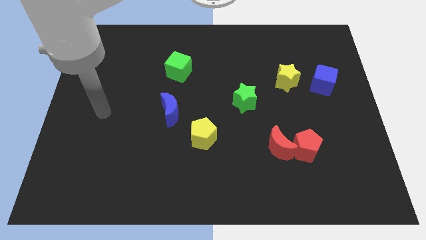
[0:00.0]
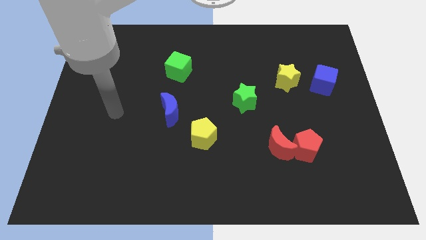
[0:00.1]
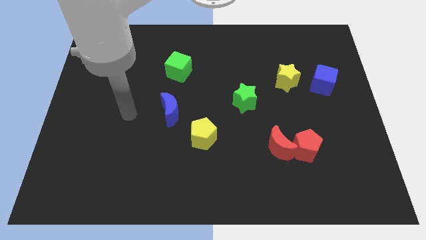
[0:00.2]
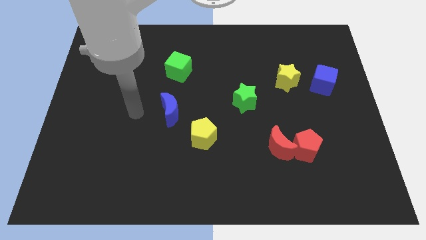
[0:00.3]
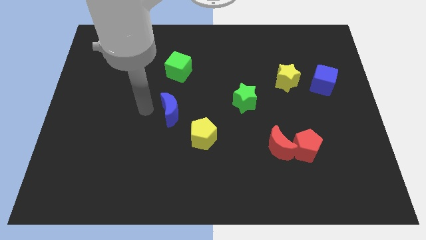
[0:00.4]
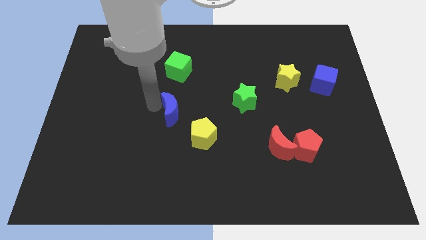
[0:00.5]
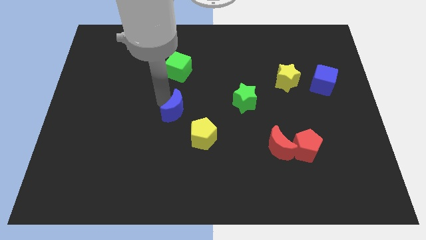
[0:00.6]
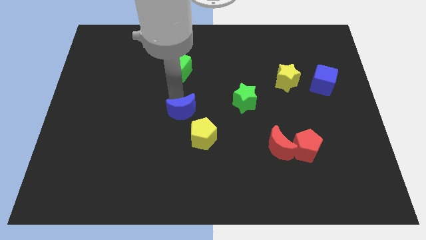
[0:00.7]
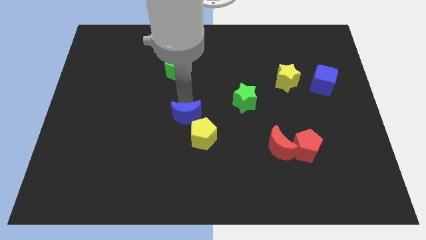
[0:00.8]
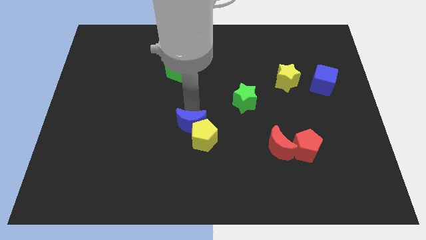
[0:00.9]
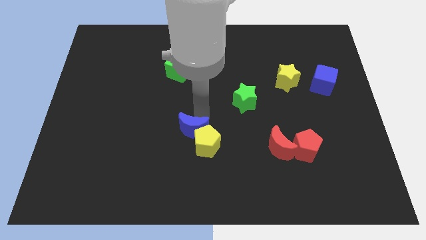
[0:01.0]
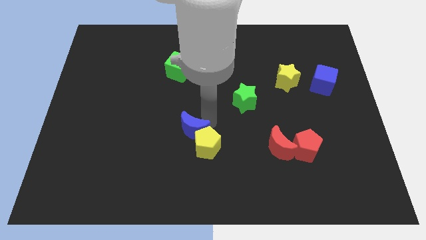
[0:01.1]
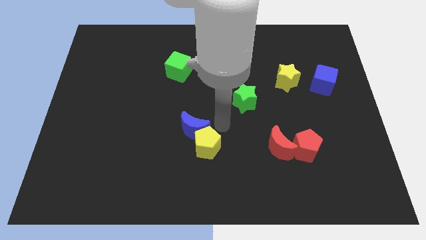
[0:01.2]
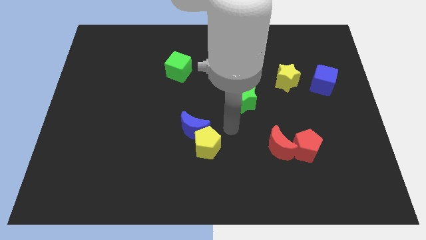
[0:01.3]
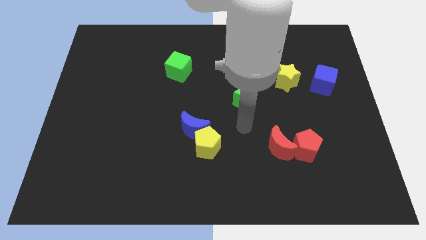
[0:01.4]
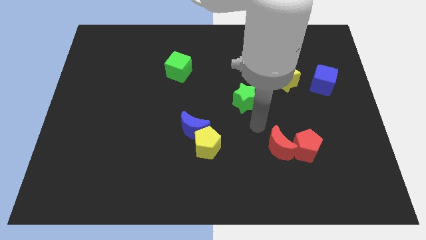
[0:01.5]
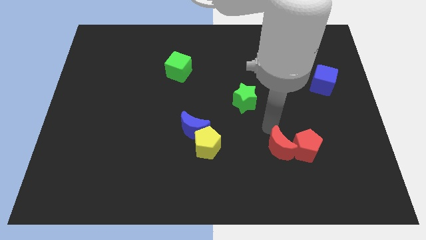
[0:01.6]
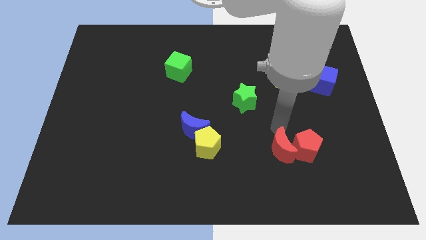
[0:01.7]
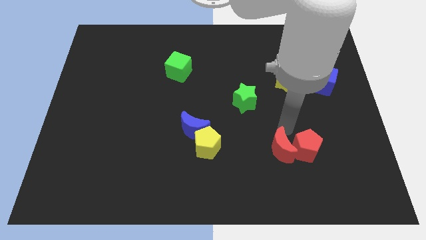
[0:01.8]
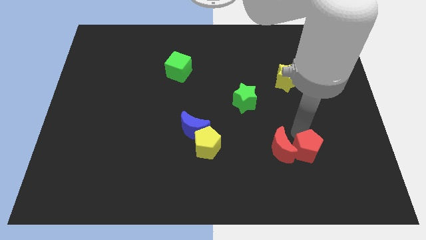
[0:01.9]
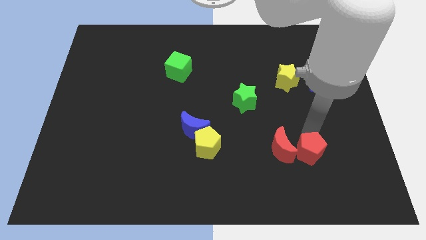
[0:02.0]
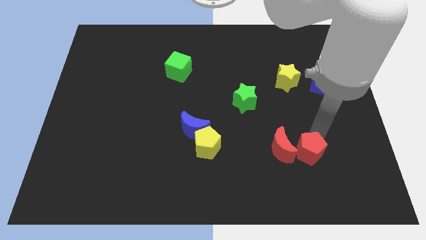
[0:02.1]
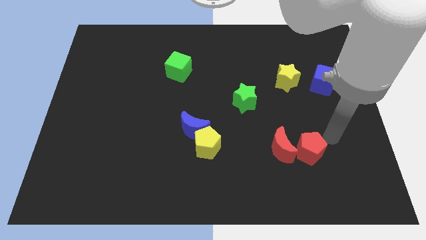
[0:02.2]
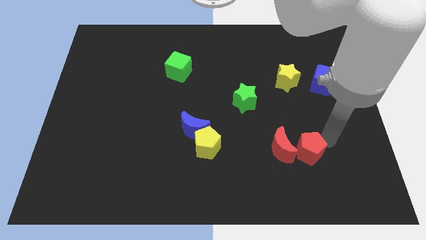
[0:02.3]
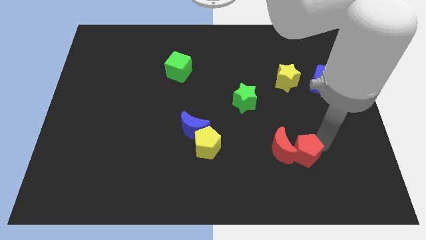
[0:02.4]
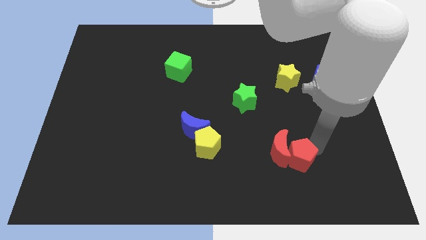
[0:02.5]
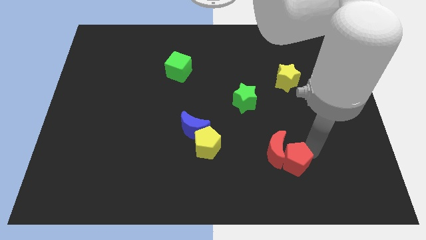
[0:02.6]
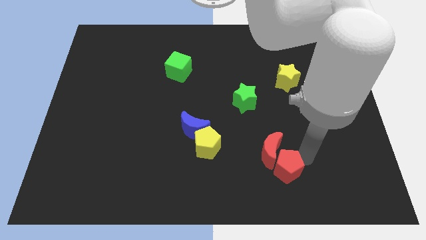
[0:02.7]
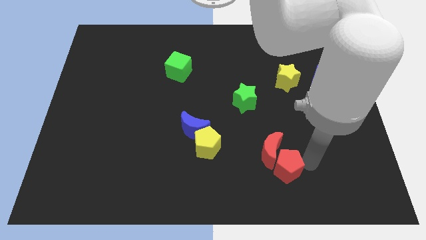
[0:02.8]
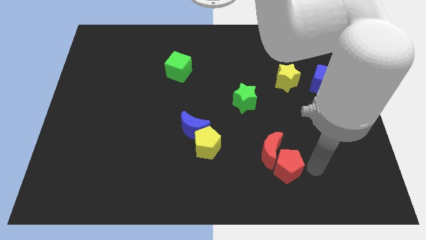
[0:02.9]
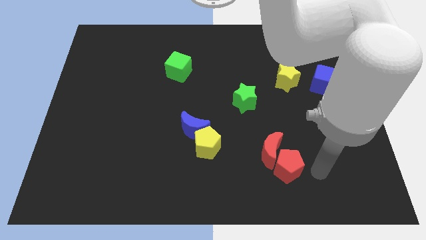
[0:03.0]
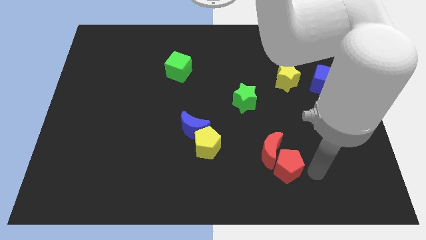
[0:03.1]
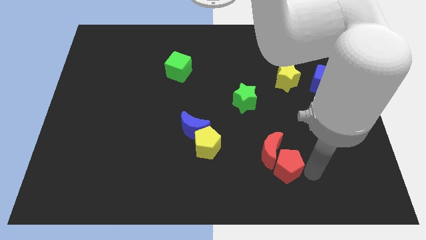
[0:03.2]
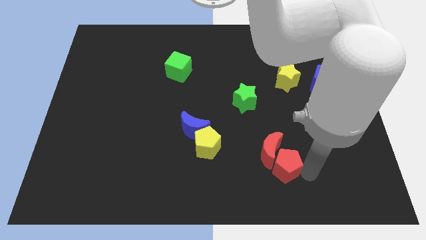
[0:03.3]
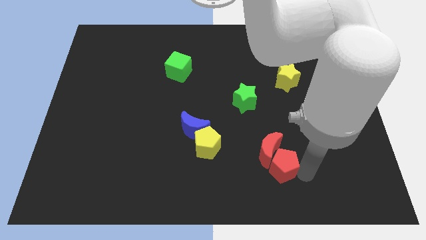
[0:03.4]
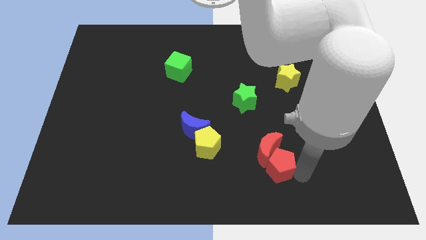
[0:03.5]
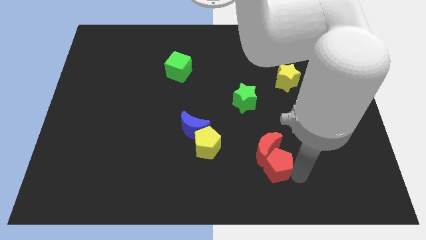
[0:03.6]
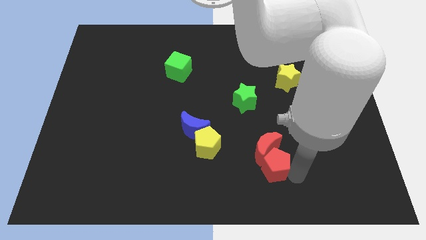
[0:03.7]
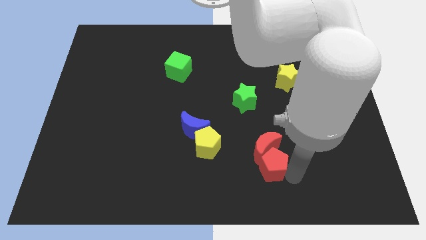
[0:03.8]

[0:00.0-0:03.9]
push the red pentagon a little bit left

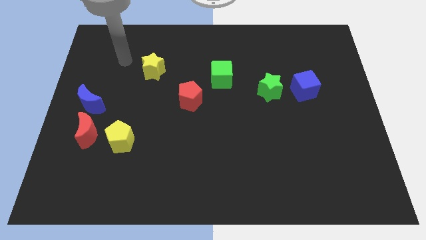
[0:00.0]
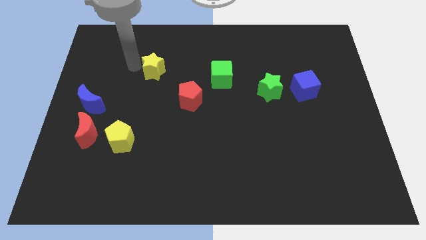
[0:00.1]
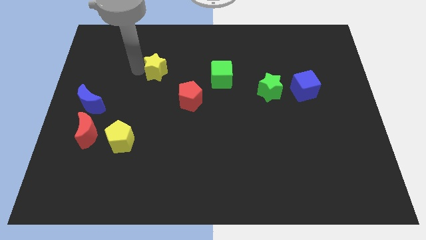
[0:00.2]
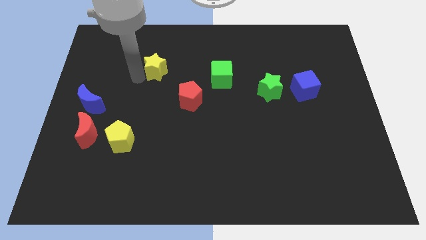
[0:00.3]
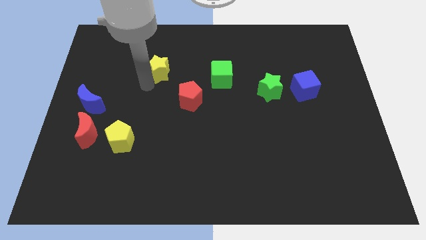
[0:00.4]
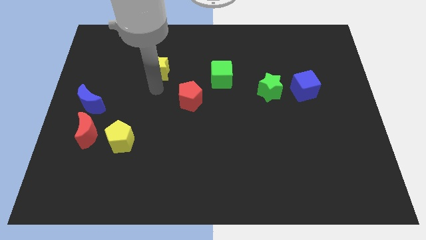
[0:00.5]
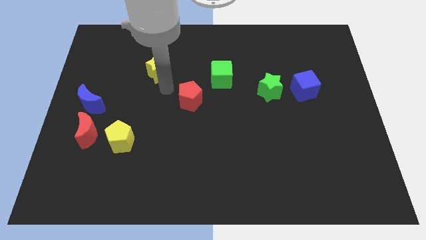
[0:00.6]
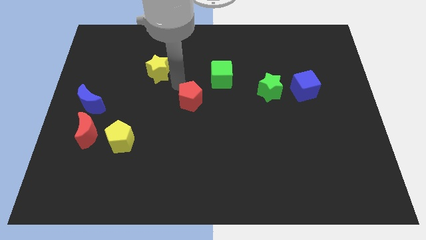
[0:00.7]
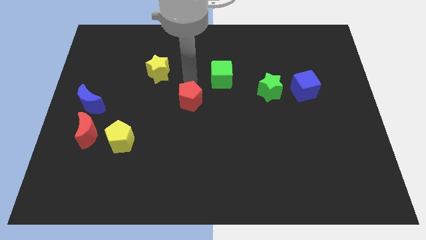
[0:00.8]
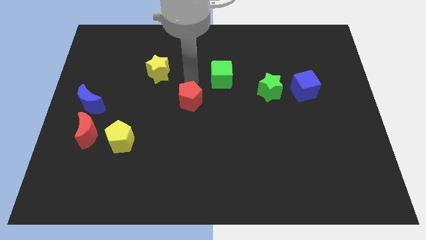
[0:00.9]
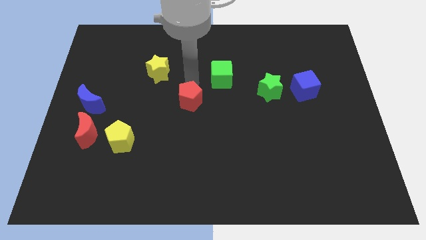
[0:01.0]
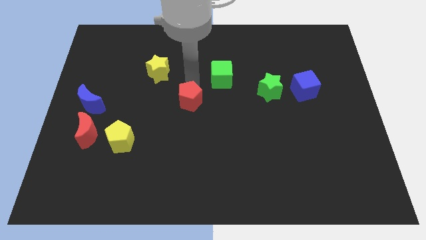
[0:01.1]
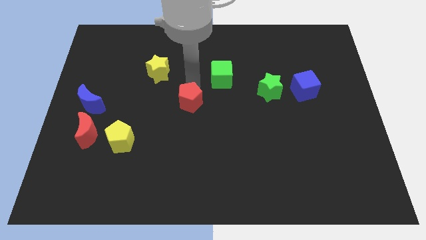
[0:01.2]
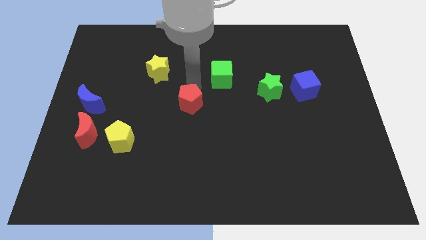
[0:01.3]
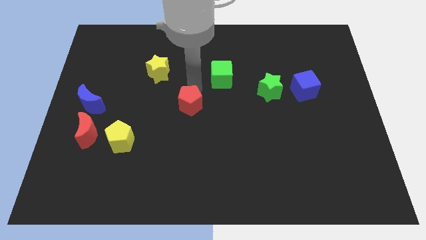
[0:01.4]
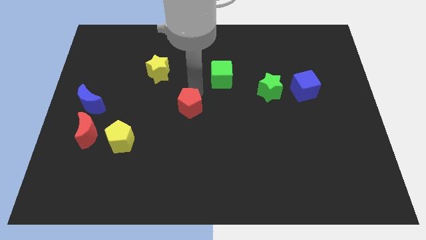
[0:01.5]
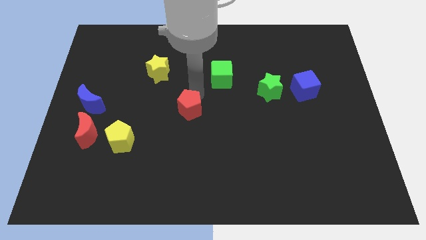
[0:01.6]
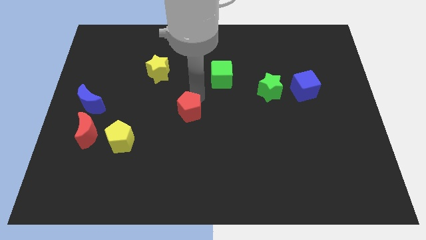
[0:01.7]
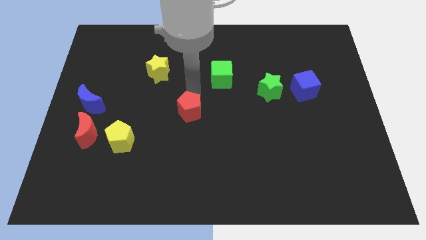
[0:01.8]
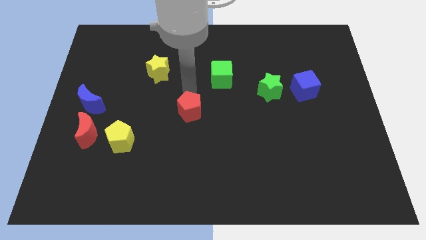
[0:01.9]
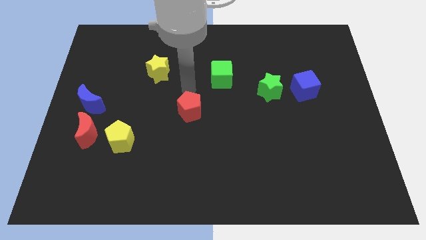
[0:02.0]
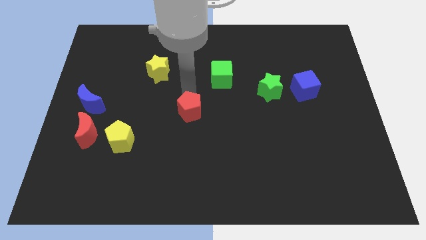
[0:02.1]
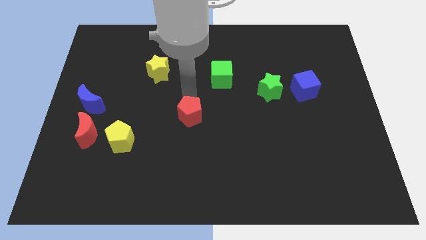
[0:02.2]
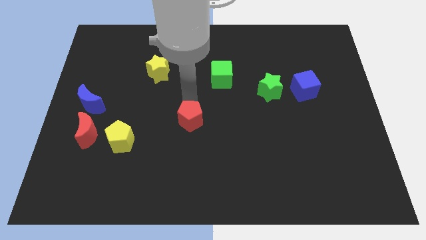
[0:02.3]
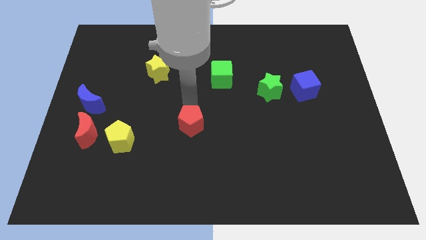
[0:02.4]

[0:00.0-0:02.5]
slide the red pentagon downwards a little

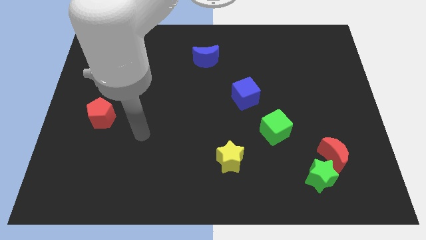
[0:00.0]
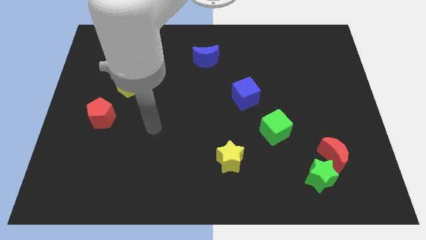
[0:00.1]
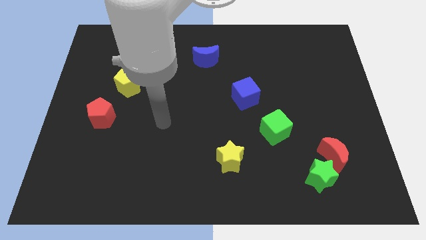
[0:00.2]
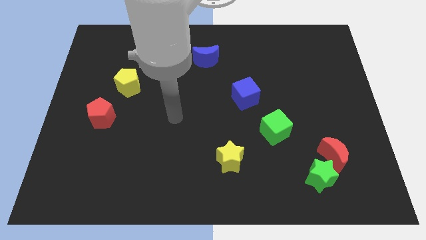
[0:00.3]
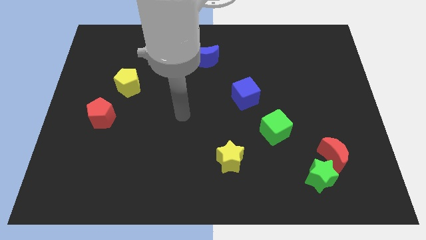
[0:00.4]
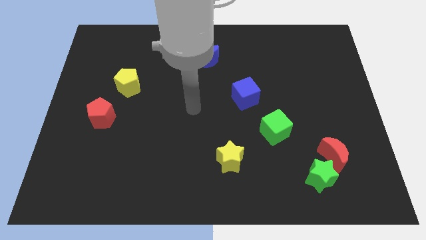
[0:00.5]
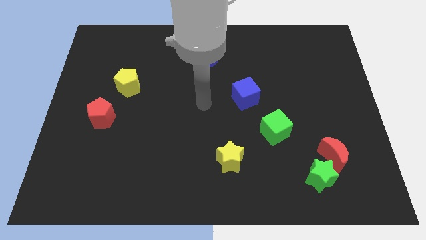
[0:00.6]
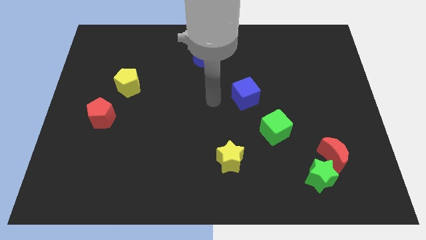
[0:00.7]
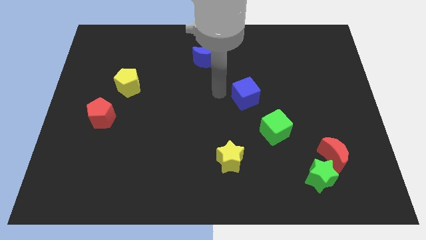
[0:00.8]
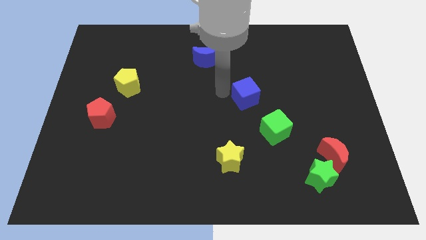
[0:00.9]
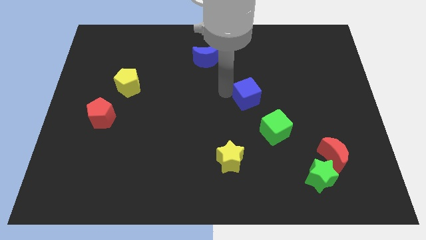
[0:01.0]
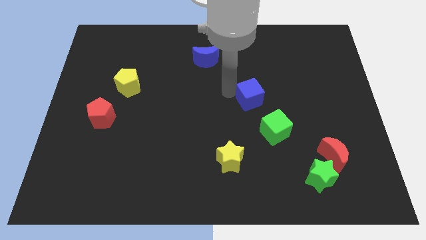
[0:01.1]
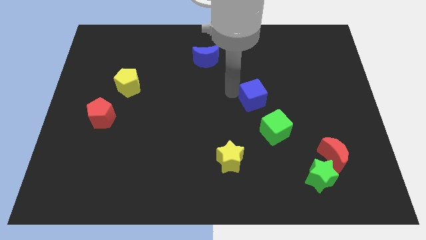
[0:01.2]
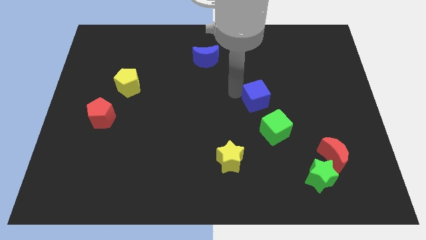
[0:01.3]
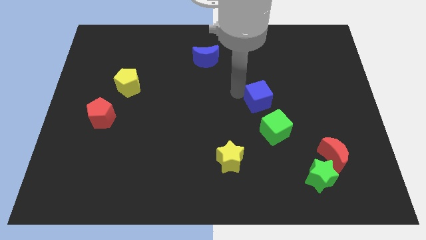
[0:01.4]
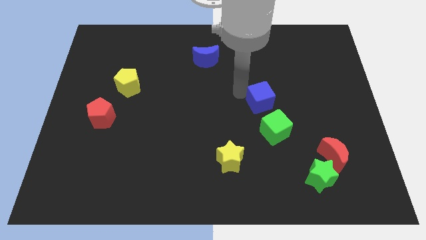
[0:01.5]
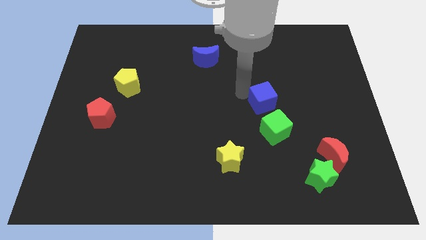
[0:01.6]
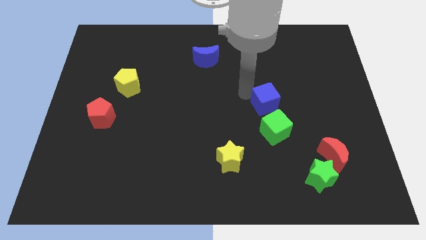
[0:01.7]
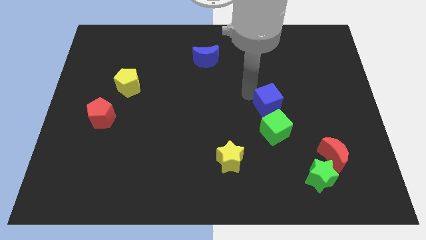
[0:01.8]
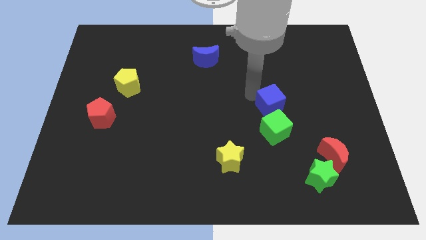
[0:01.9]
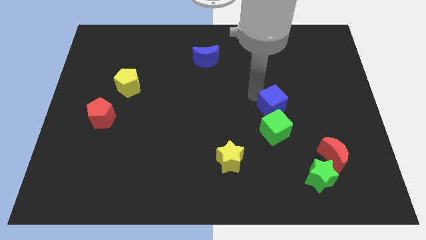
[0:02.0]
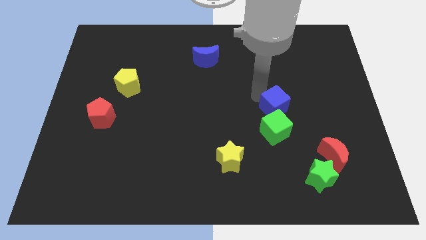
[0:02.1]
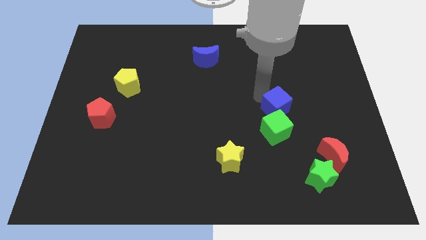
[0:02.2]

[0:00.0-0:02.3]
slide the blue cube to the right somewhat
